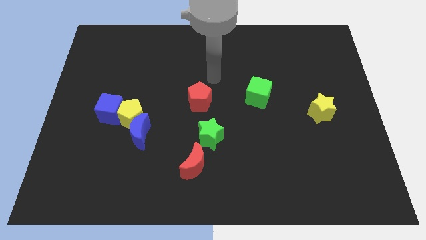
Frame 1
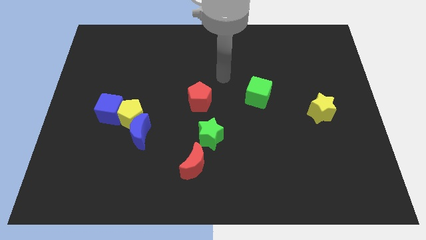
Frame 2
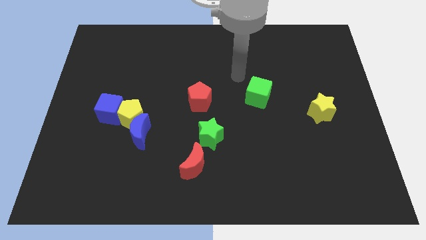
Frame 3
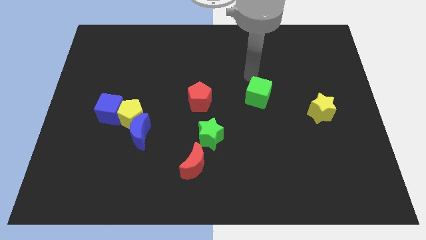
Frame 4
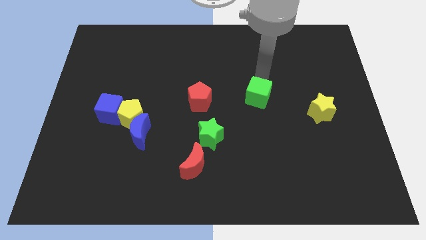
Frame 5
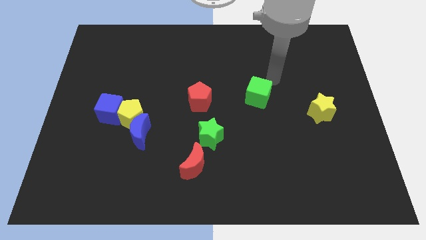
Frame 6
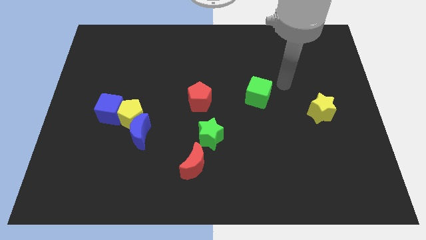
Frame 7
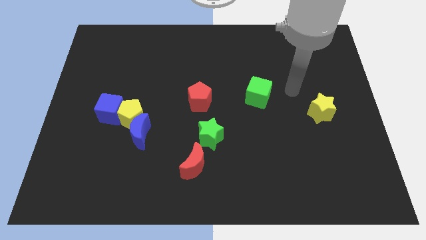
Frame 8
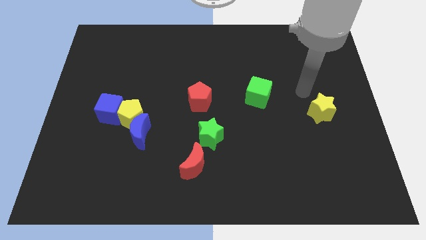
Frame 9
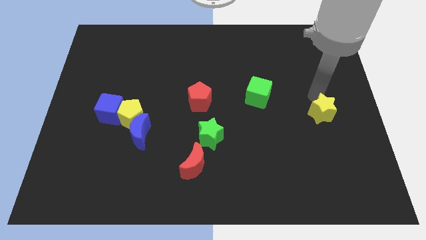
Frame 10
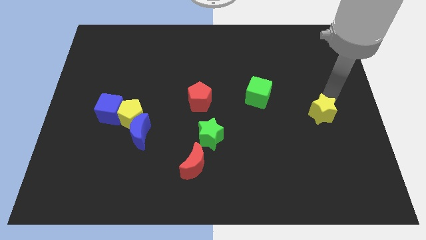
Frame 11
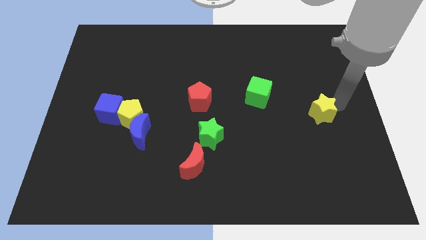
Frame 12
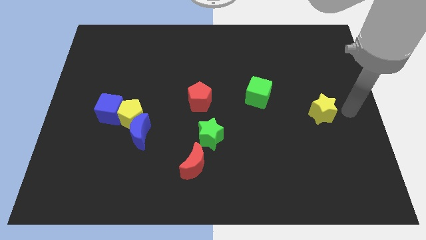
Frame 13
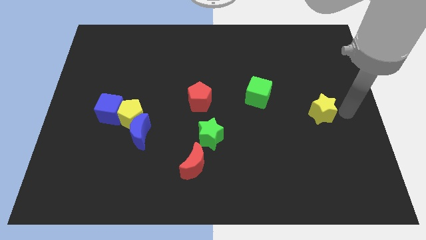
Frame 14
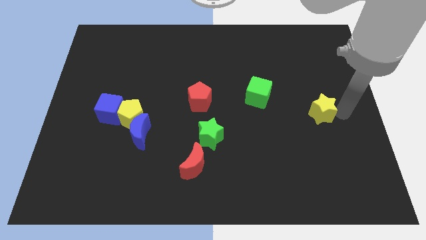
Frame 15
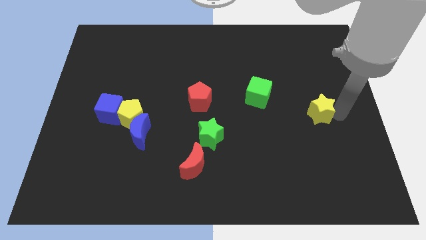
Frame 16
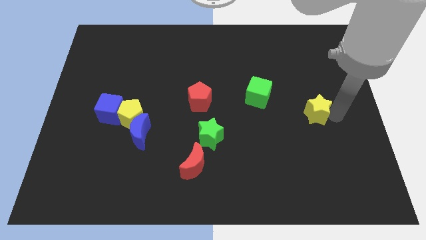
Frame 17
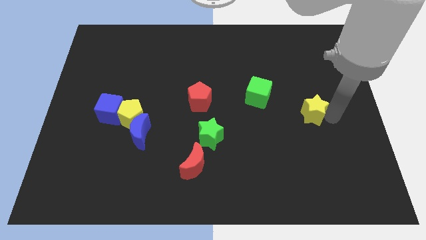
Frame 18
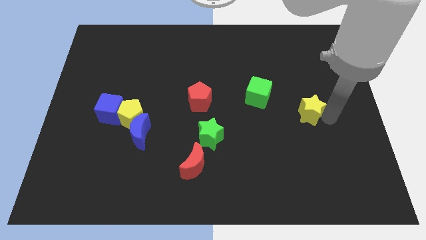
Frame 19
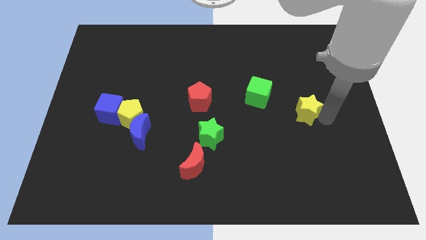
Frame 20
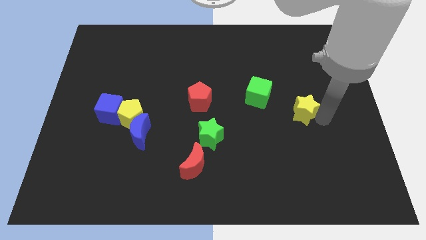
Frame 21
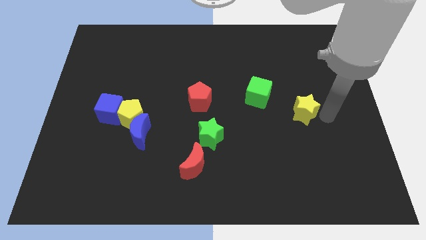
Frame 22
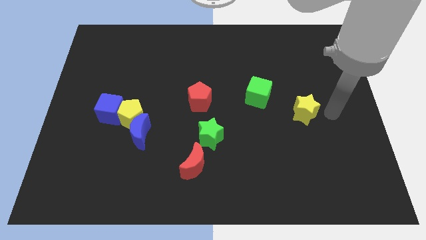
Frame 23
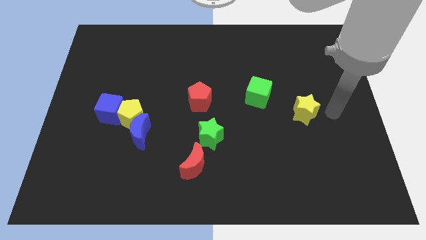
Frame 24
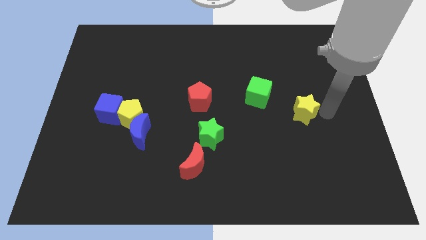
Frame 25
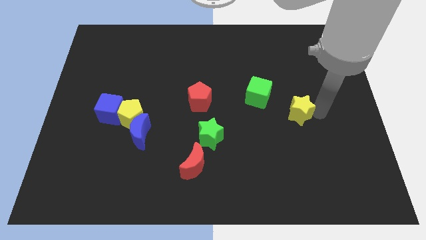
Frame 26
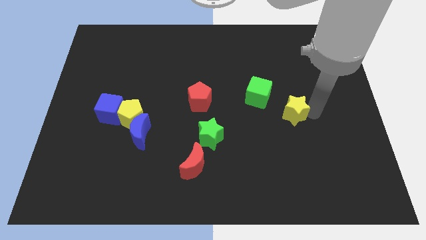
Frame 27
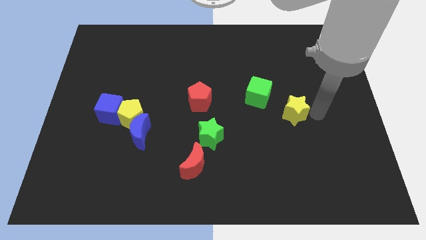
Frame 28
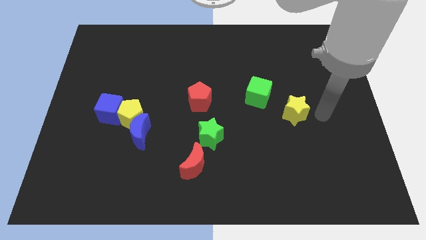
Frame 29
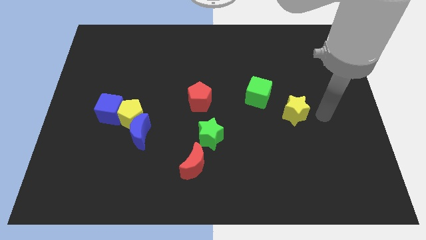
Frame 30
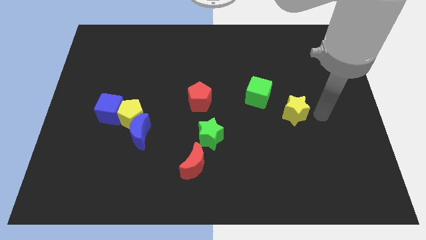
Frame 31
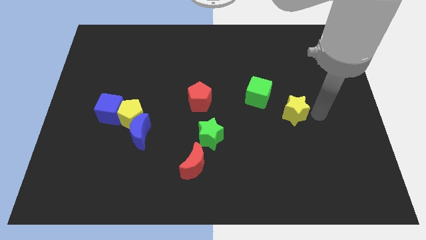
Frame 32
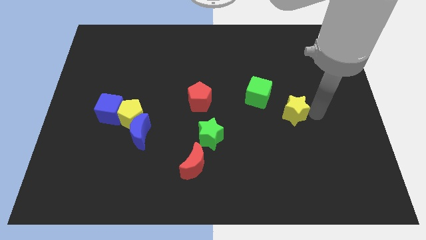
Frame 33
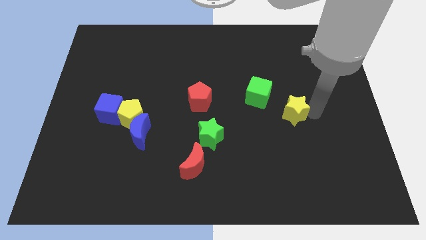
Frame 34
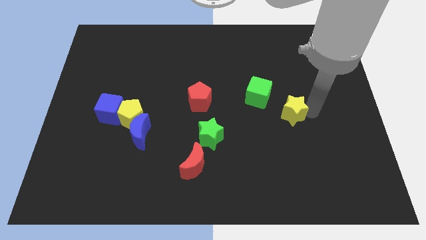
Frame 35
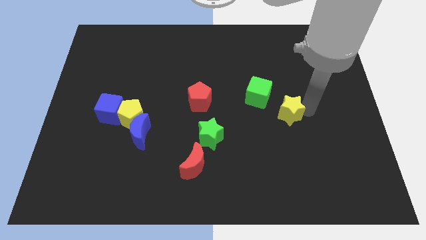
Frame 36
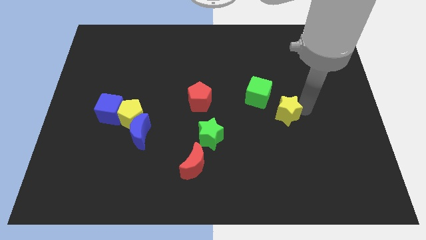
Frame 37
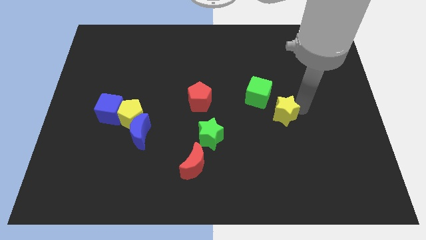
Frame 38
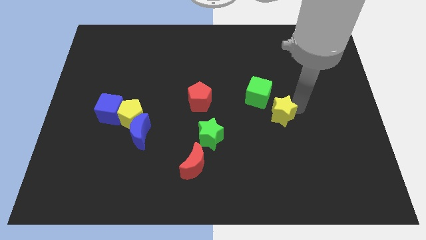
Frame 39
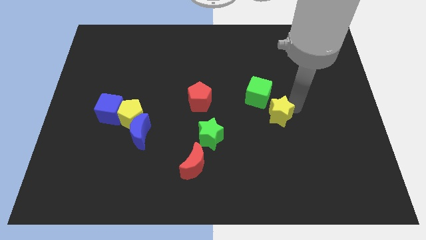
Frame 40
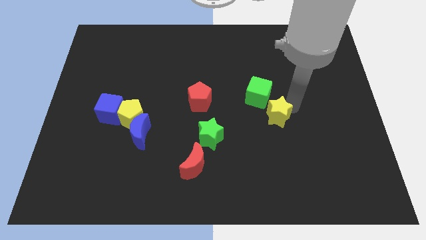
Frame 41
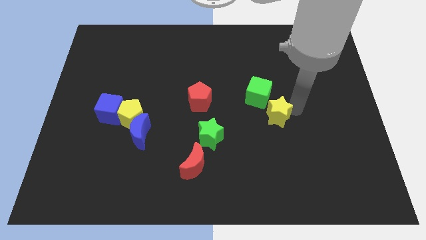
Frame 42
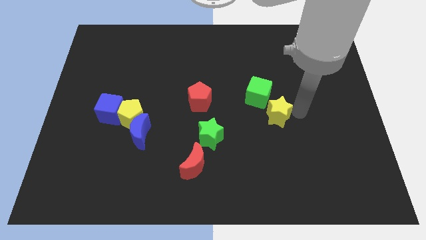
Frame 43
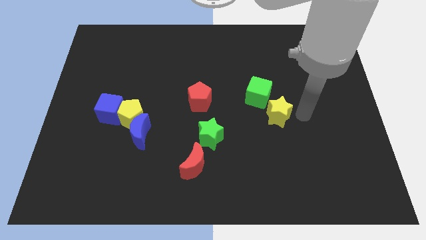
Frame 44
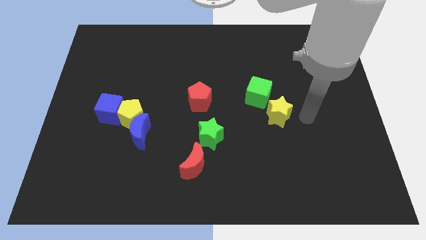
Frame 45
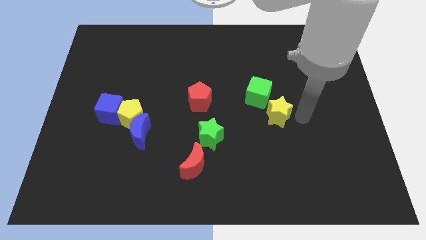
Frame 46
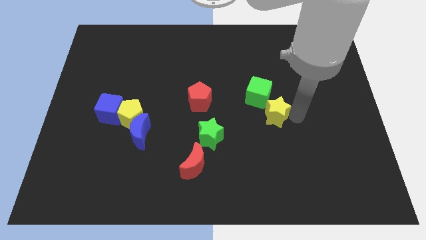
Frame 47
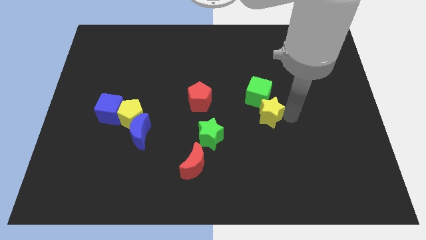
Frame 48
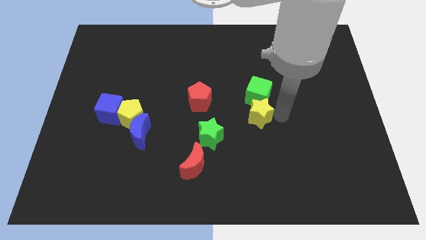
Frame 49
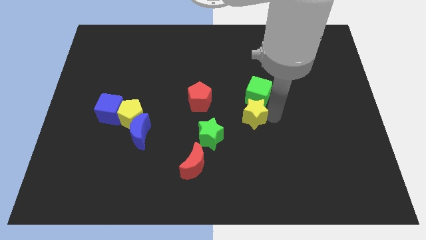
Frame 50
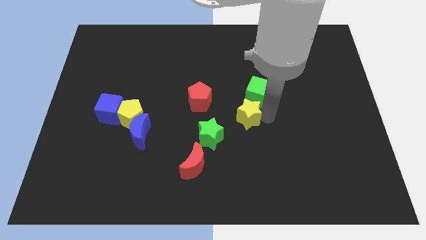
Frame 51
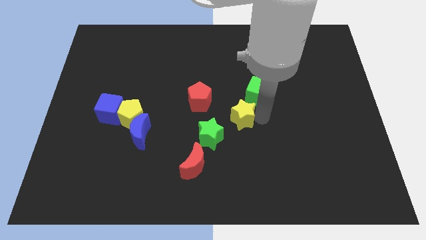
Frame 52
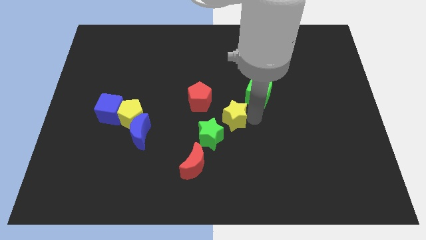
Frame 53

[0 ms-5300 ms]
move the yellow star to the left

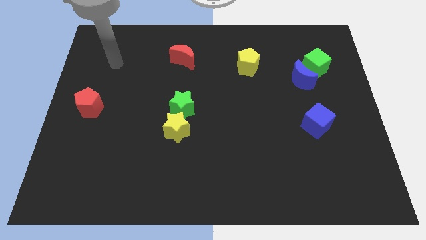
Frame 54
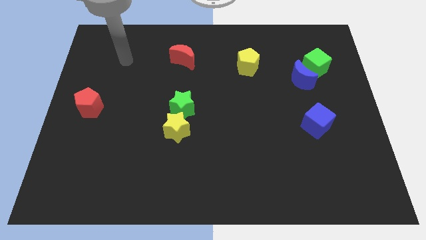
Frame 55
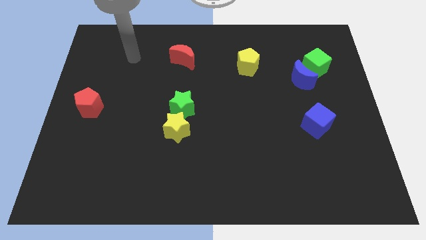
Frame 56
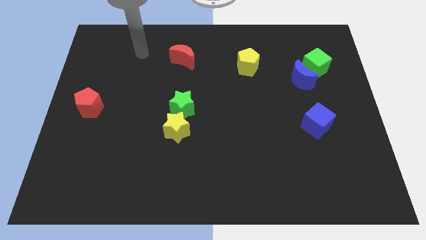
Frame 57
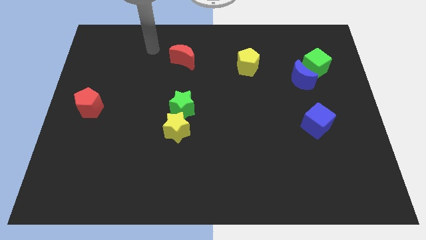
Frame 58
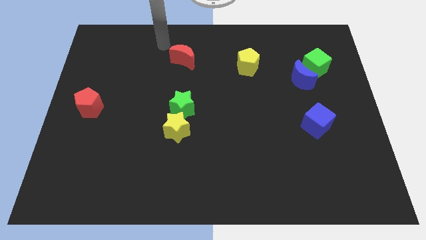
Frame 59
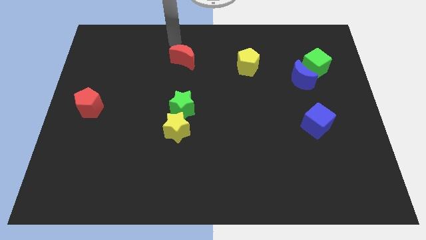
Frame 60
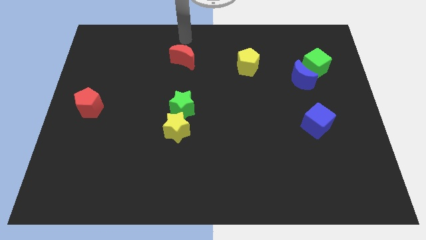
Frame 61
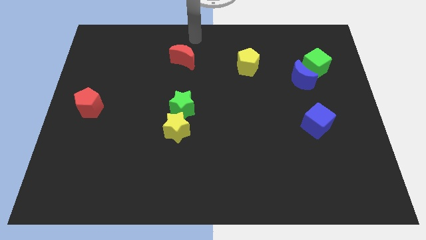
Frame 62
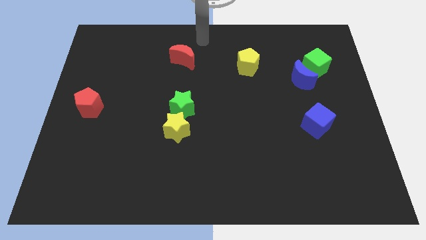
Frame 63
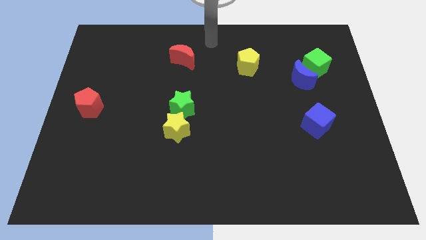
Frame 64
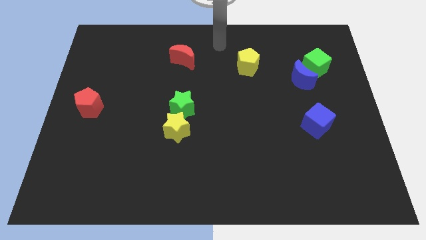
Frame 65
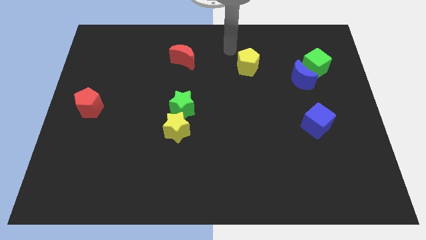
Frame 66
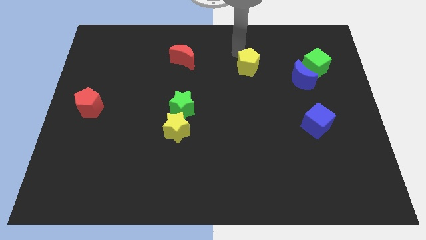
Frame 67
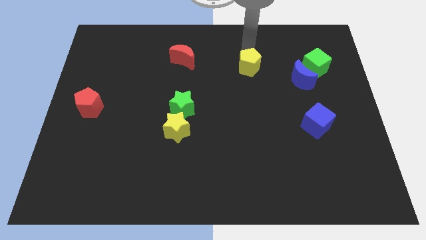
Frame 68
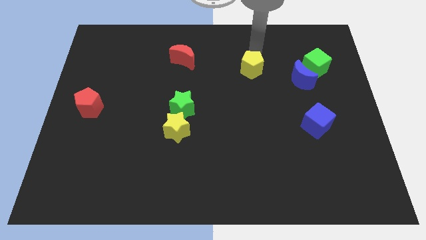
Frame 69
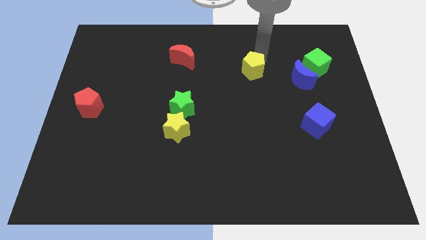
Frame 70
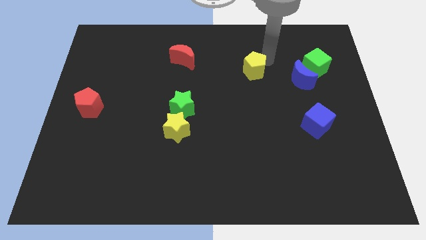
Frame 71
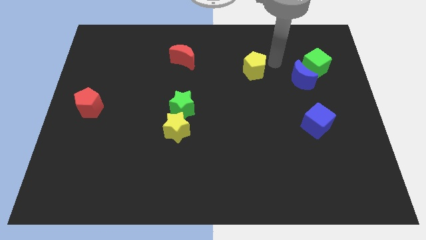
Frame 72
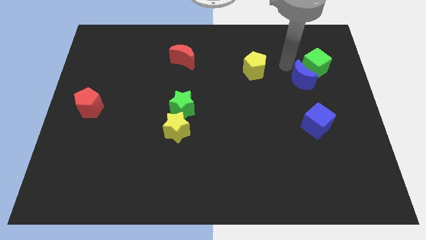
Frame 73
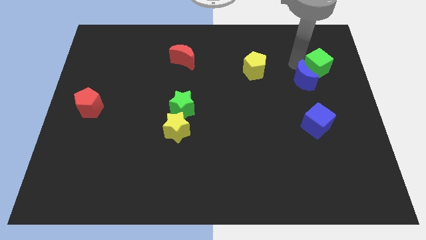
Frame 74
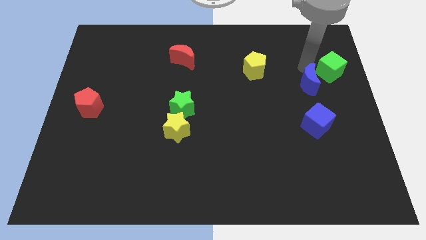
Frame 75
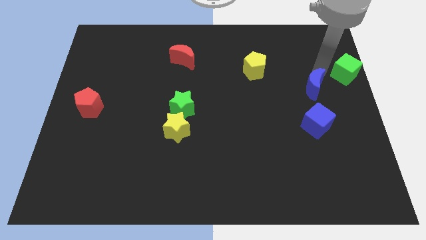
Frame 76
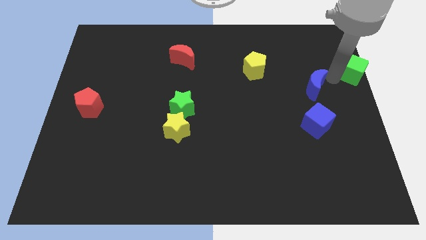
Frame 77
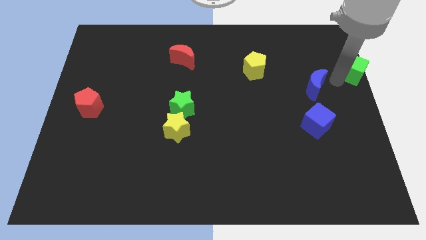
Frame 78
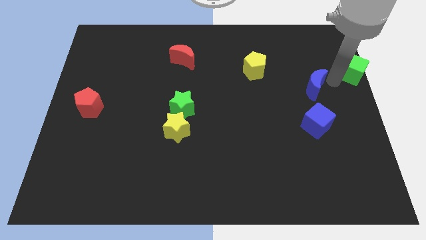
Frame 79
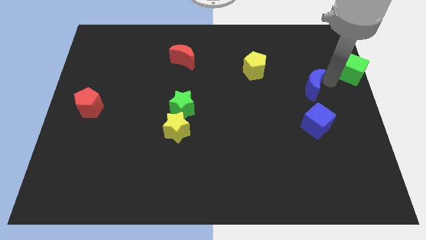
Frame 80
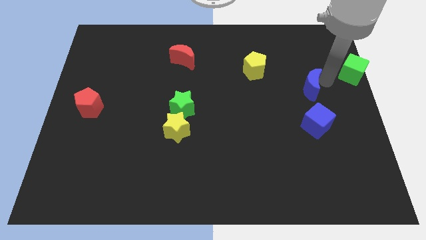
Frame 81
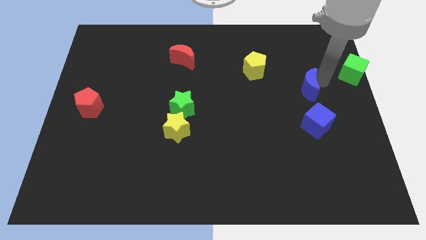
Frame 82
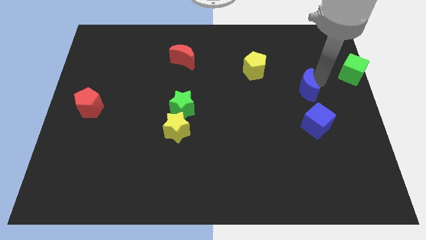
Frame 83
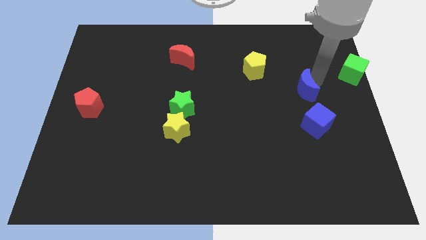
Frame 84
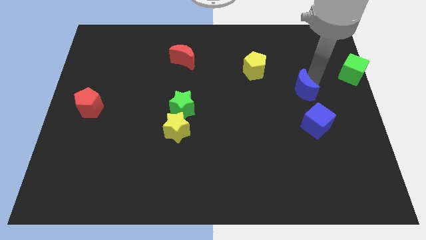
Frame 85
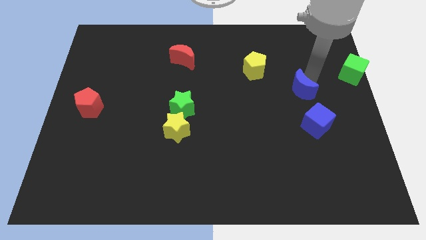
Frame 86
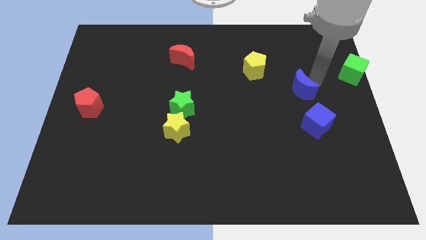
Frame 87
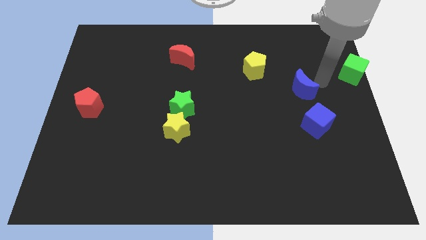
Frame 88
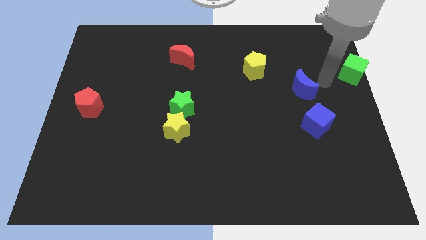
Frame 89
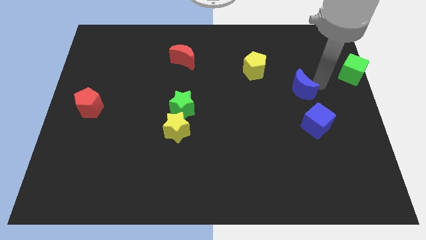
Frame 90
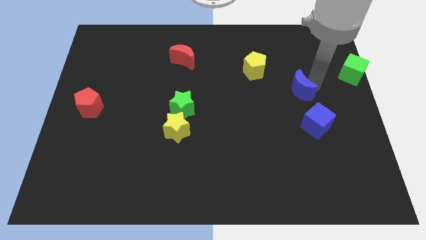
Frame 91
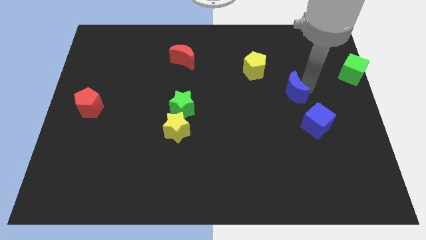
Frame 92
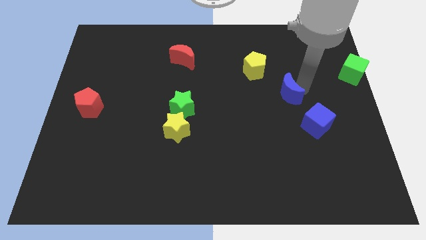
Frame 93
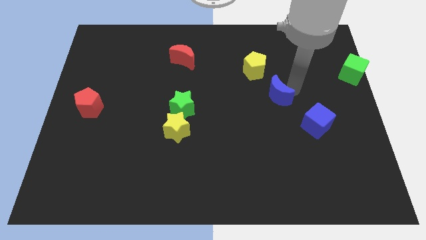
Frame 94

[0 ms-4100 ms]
slightly push the blue moon down and then to the left
